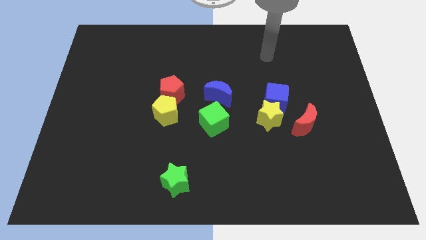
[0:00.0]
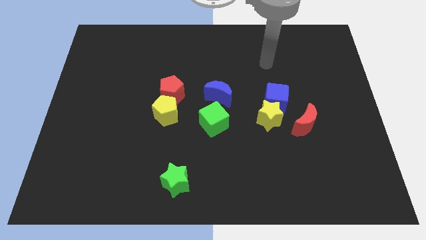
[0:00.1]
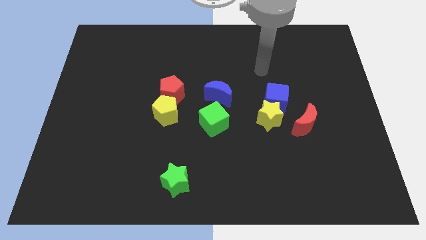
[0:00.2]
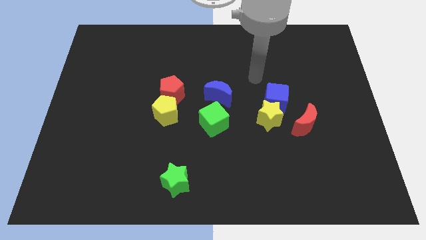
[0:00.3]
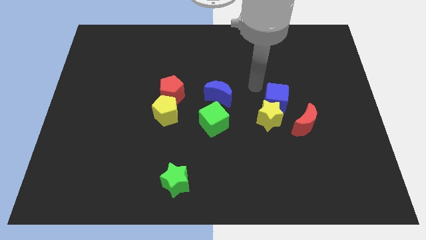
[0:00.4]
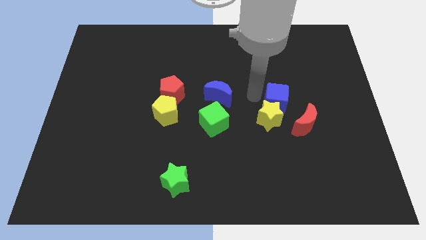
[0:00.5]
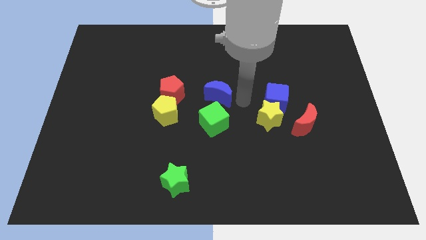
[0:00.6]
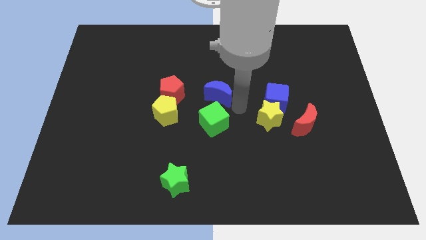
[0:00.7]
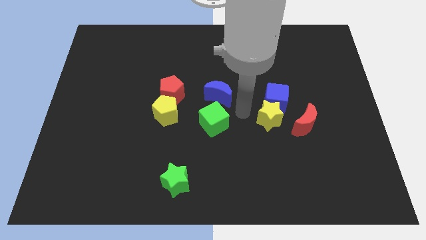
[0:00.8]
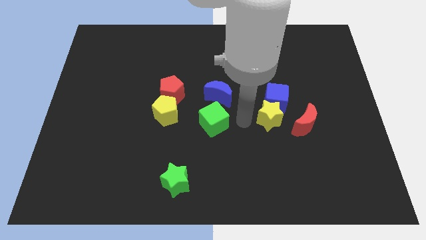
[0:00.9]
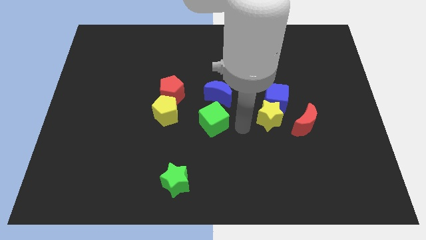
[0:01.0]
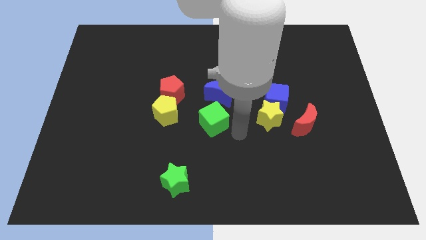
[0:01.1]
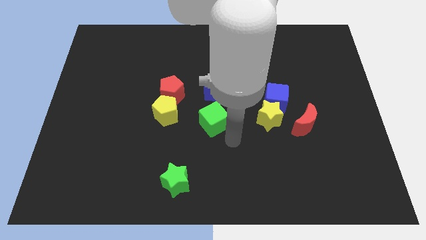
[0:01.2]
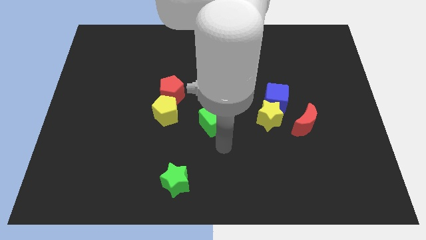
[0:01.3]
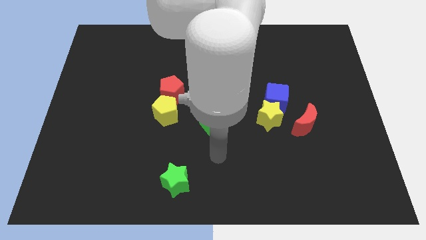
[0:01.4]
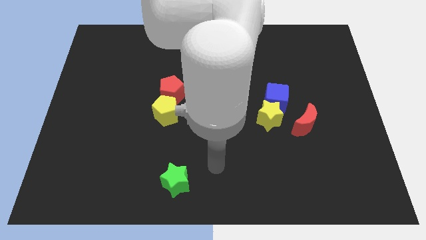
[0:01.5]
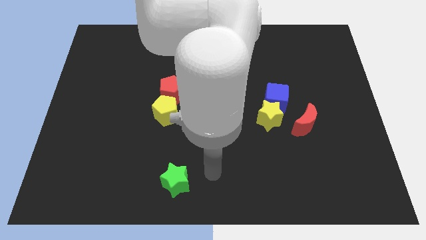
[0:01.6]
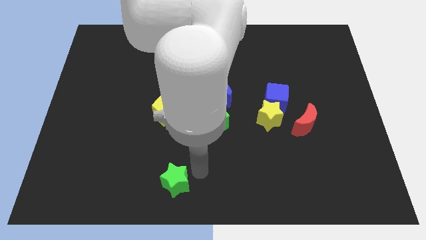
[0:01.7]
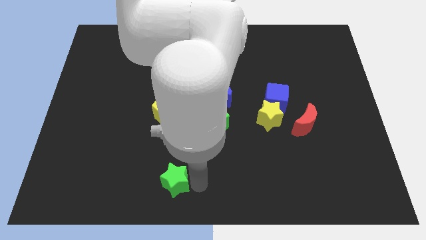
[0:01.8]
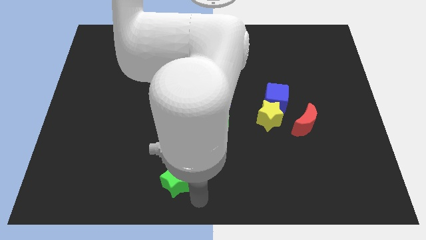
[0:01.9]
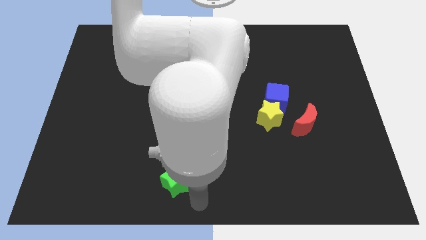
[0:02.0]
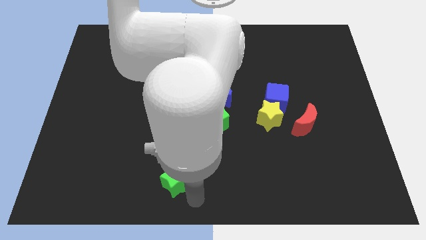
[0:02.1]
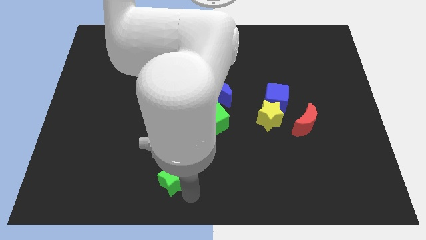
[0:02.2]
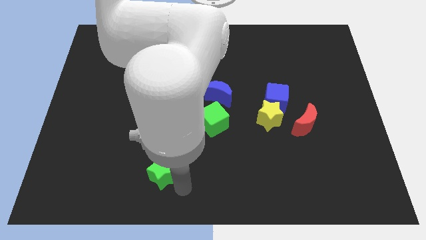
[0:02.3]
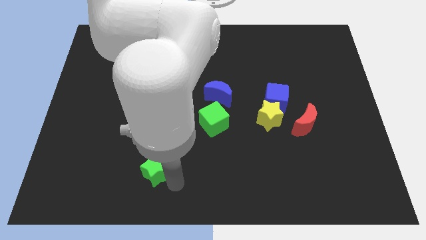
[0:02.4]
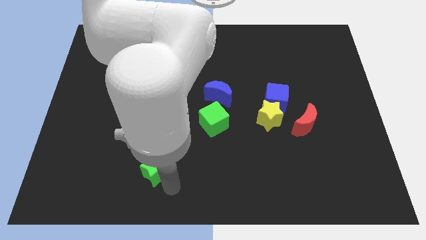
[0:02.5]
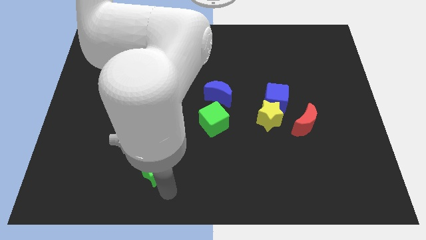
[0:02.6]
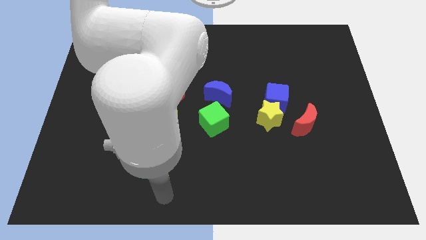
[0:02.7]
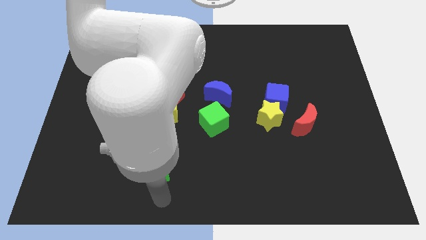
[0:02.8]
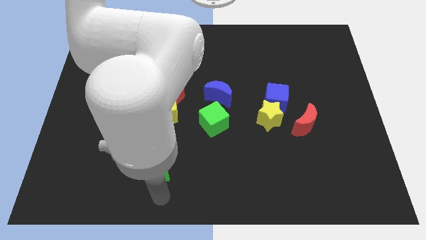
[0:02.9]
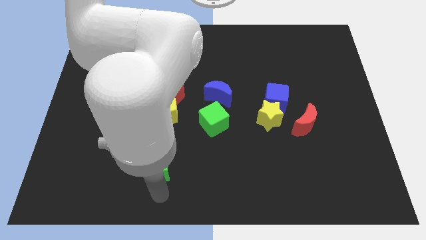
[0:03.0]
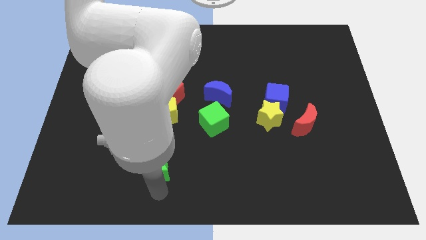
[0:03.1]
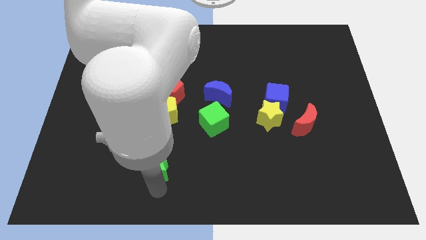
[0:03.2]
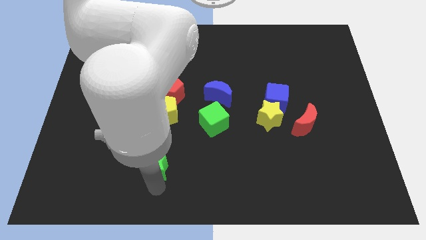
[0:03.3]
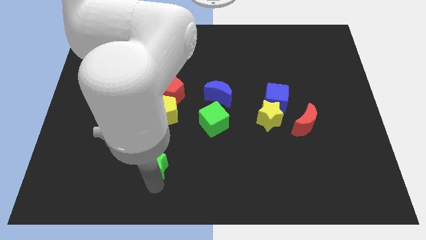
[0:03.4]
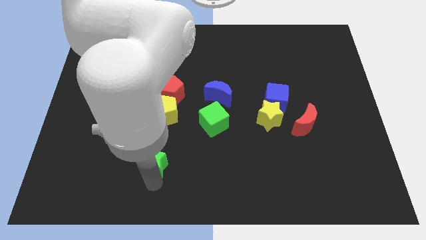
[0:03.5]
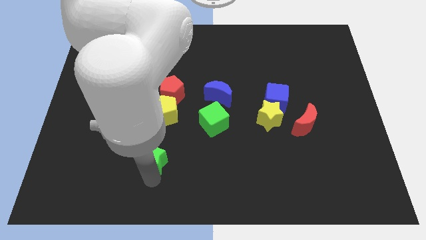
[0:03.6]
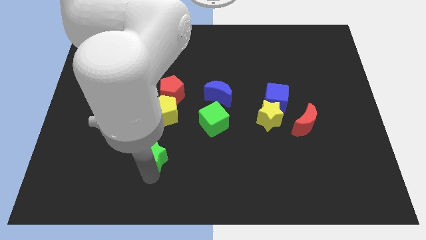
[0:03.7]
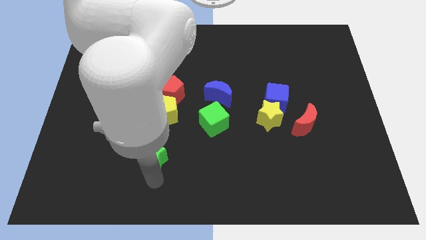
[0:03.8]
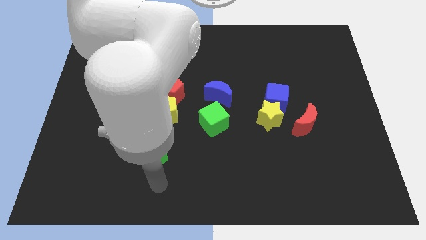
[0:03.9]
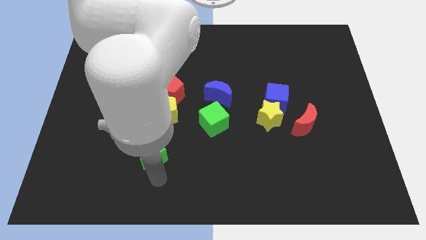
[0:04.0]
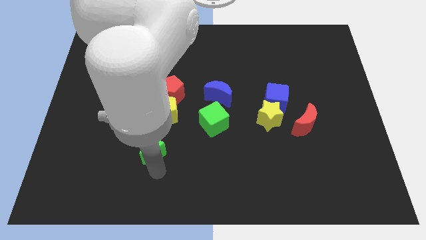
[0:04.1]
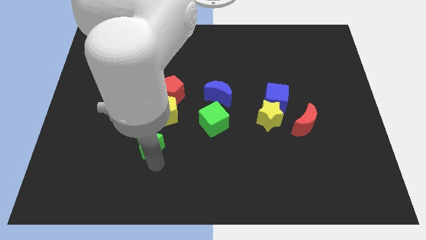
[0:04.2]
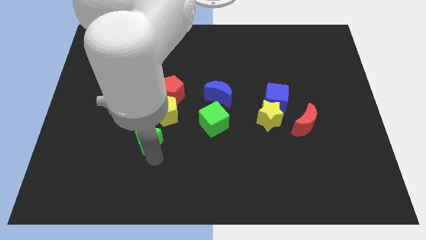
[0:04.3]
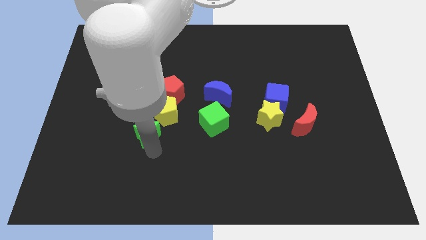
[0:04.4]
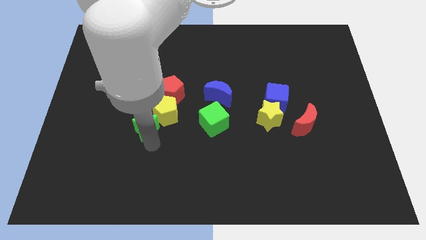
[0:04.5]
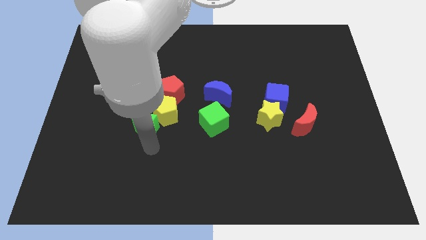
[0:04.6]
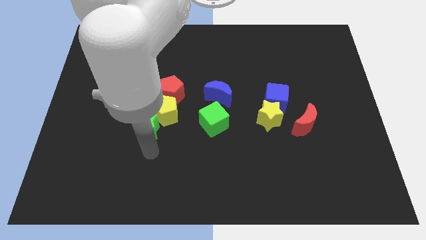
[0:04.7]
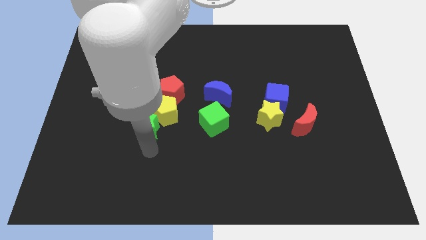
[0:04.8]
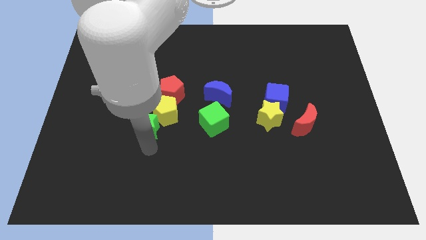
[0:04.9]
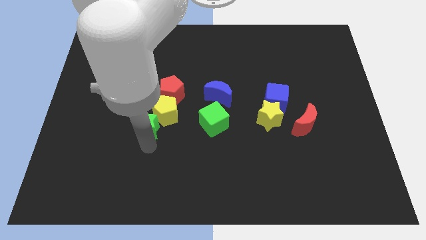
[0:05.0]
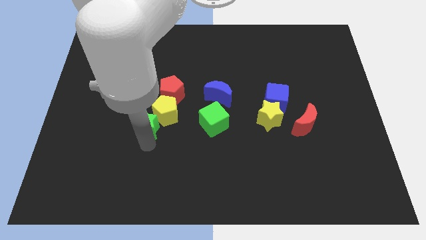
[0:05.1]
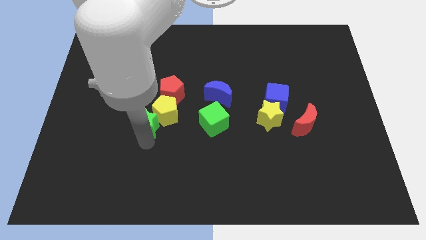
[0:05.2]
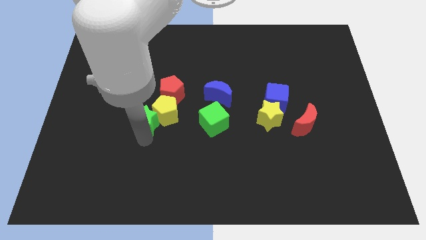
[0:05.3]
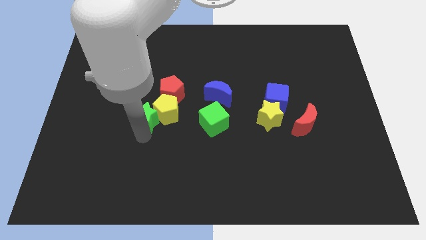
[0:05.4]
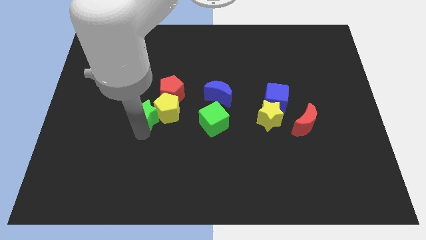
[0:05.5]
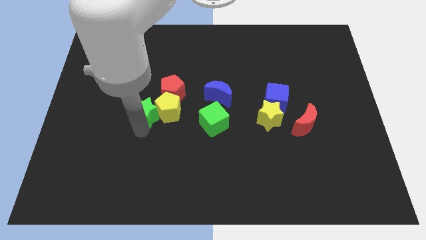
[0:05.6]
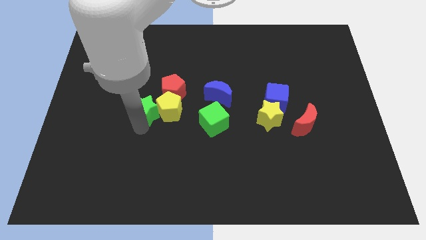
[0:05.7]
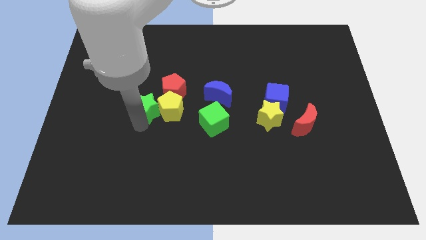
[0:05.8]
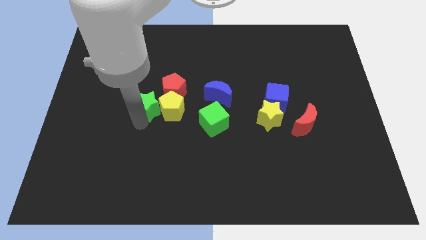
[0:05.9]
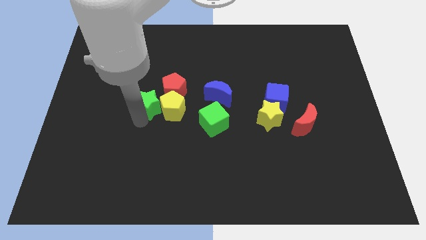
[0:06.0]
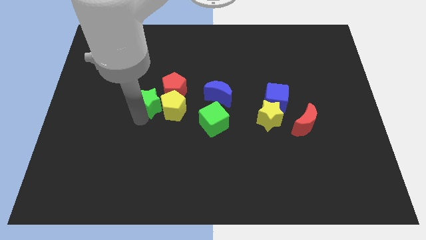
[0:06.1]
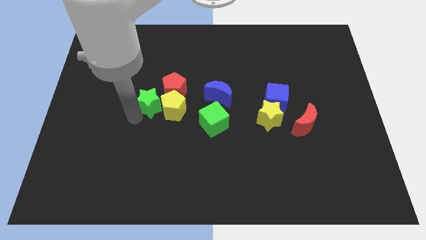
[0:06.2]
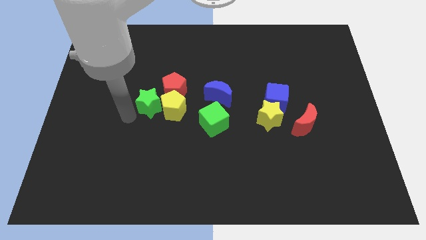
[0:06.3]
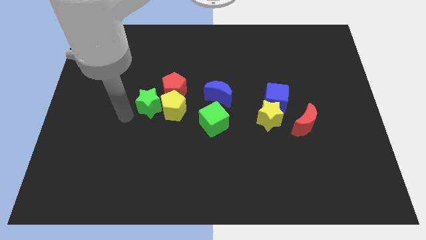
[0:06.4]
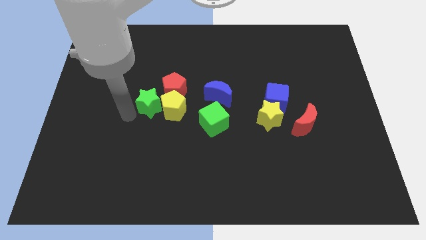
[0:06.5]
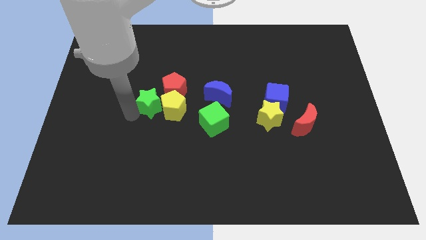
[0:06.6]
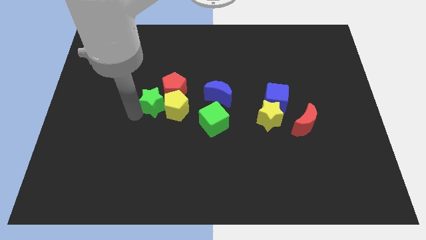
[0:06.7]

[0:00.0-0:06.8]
push the green star to the left of the blue moon

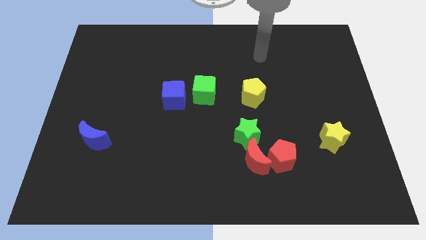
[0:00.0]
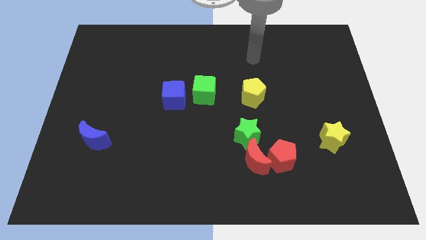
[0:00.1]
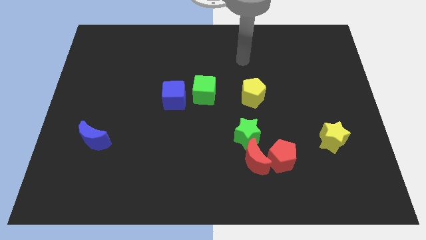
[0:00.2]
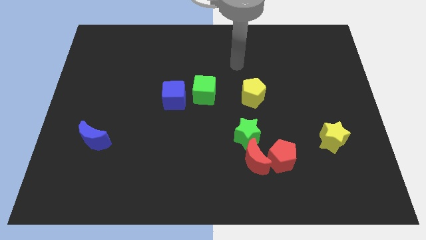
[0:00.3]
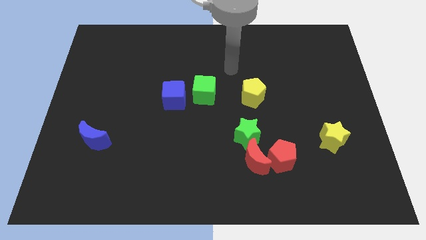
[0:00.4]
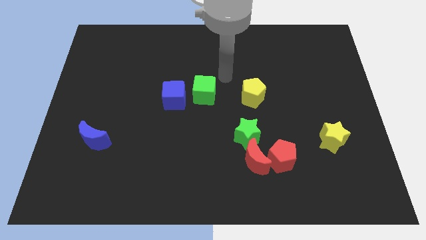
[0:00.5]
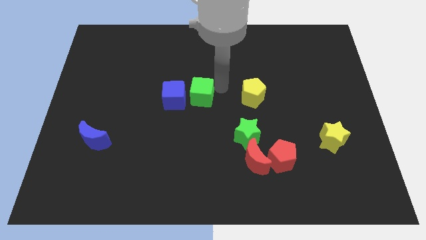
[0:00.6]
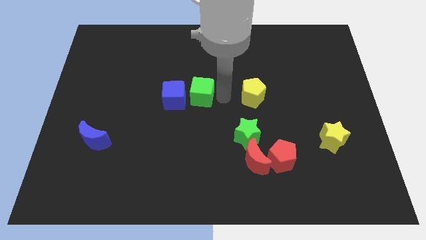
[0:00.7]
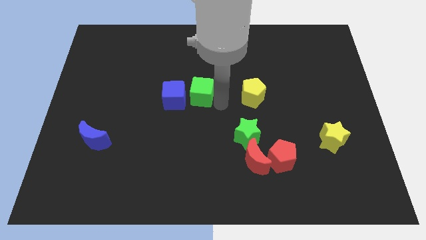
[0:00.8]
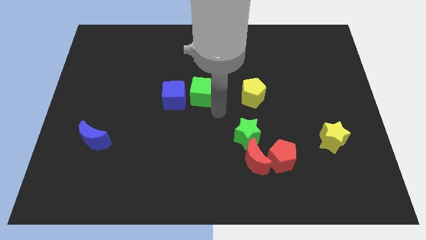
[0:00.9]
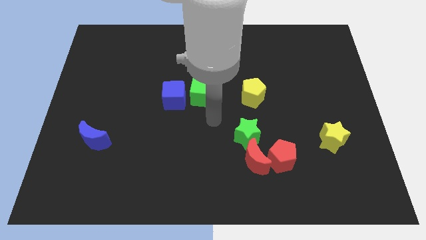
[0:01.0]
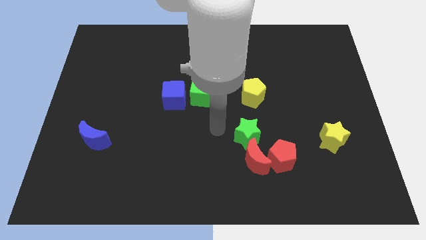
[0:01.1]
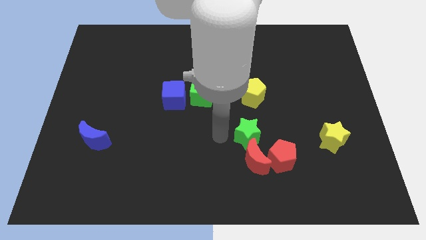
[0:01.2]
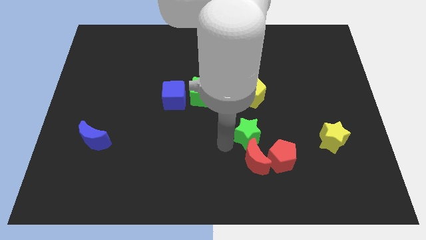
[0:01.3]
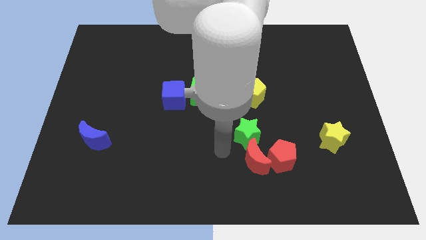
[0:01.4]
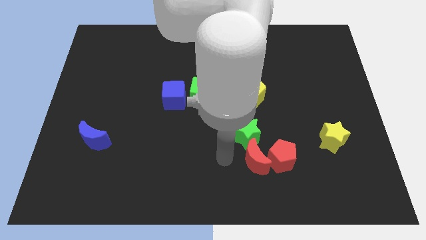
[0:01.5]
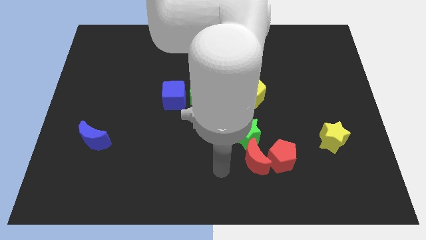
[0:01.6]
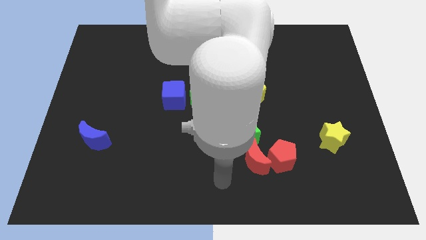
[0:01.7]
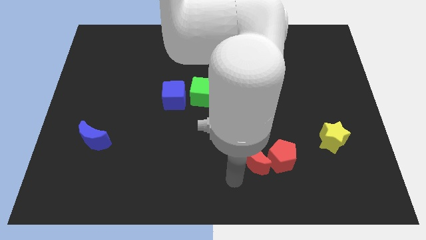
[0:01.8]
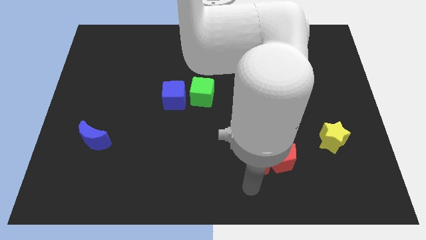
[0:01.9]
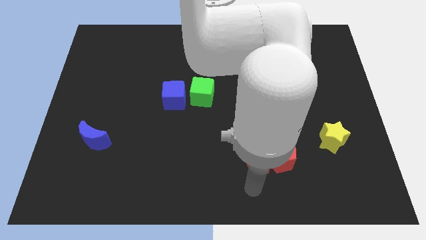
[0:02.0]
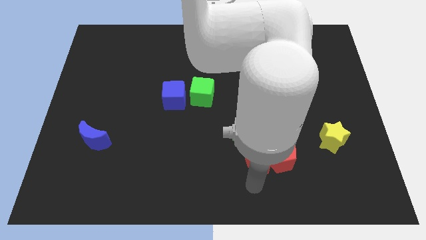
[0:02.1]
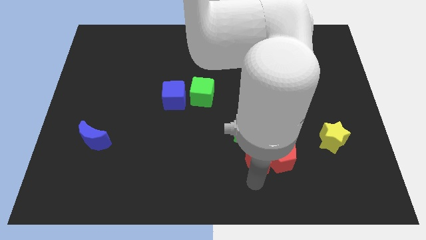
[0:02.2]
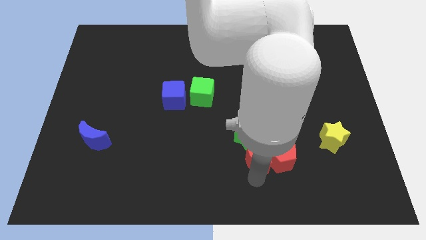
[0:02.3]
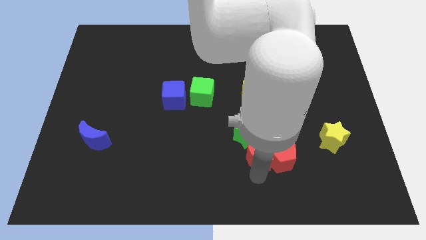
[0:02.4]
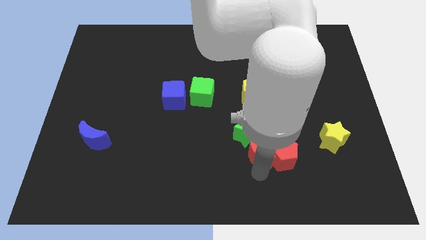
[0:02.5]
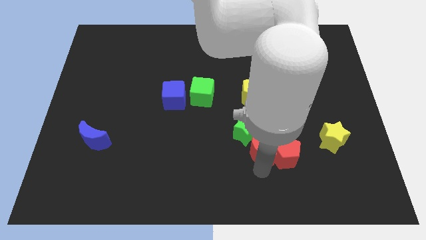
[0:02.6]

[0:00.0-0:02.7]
push the red moon to the bottom side of the yellow pentagon
